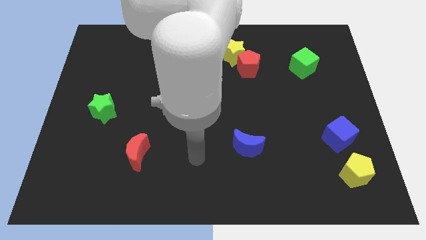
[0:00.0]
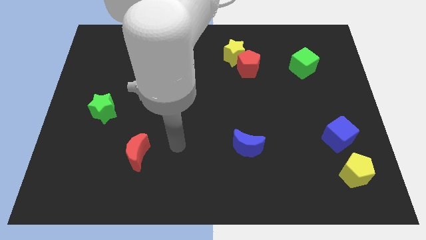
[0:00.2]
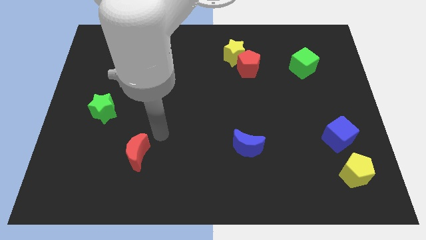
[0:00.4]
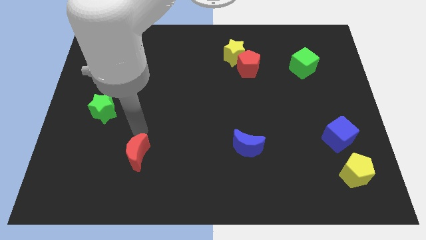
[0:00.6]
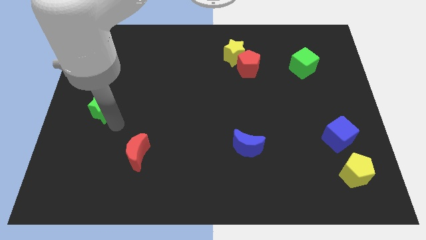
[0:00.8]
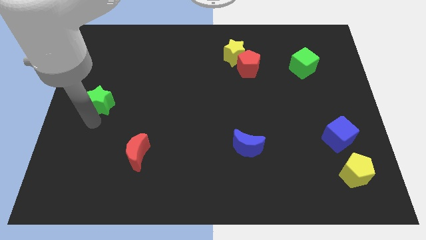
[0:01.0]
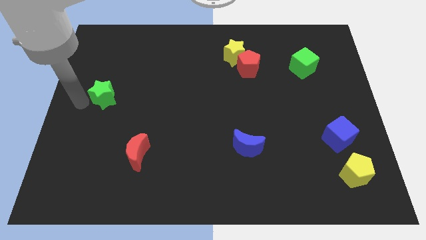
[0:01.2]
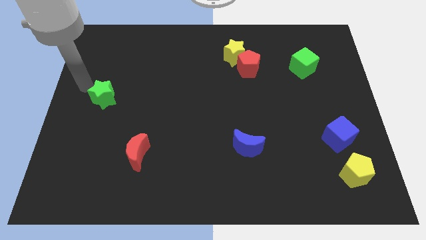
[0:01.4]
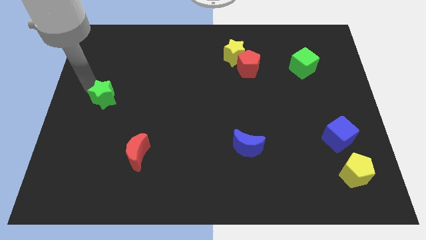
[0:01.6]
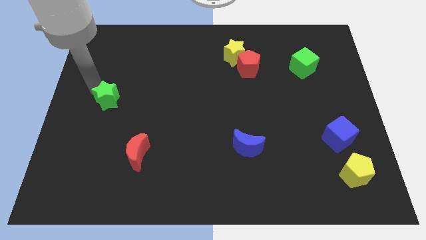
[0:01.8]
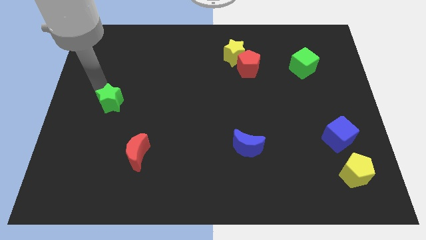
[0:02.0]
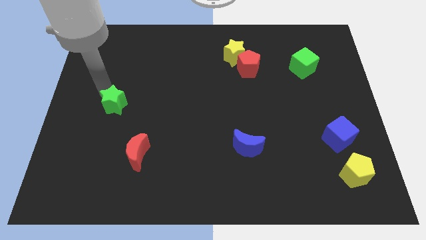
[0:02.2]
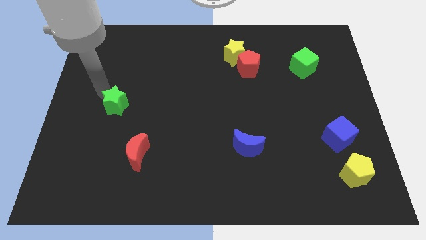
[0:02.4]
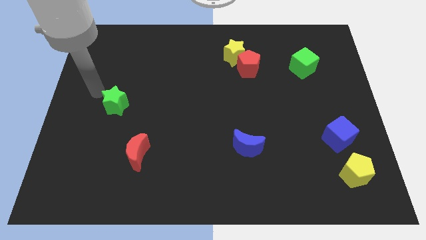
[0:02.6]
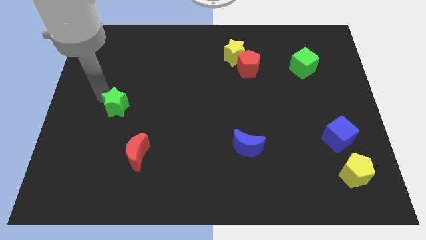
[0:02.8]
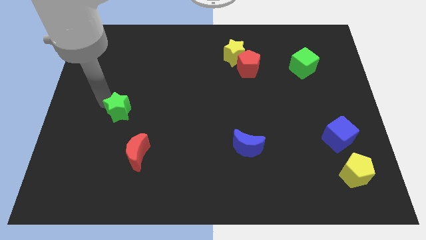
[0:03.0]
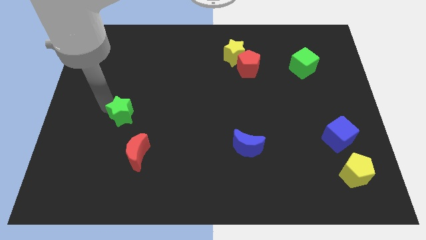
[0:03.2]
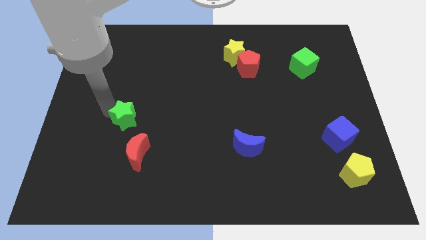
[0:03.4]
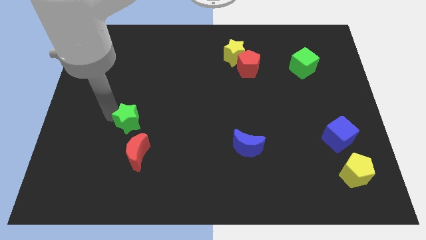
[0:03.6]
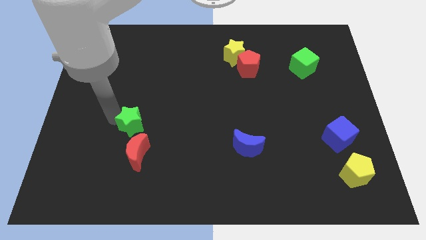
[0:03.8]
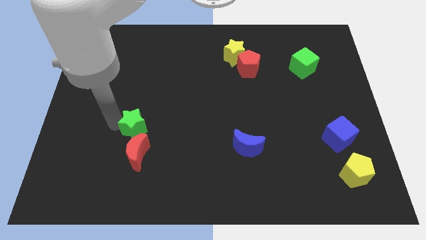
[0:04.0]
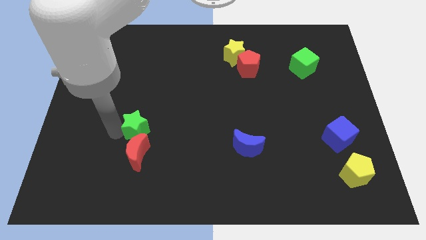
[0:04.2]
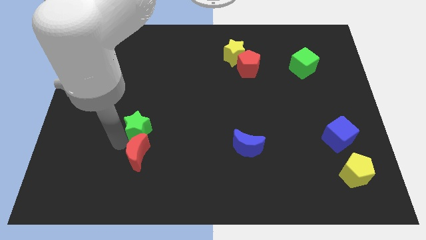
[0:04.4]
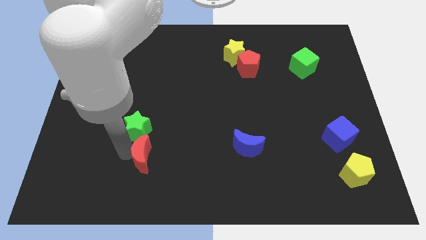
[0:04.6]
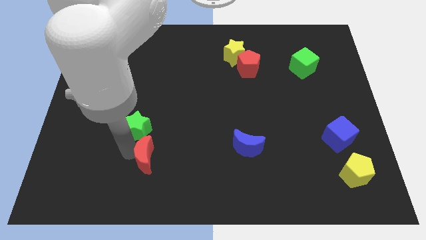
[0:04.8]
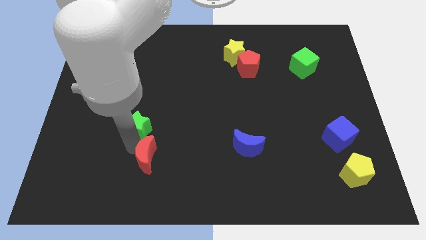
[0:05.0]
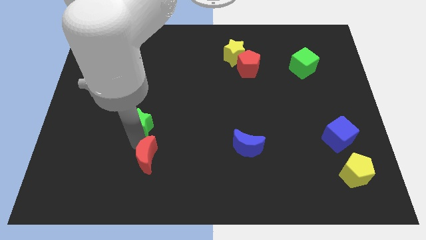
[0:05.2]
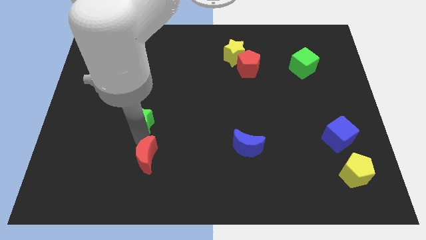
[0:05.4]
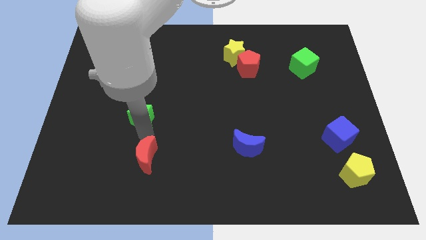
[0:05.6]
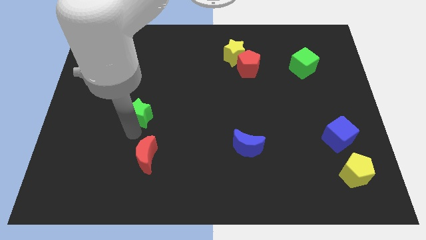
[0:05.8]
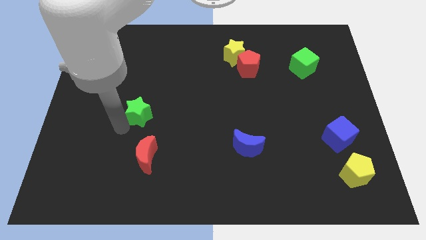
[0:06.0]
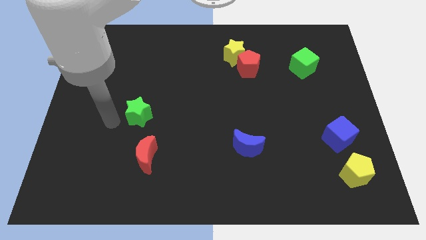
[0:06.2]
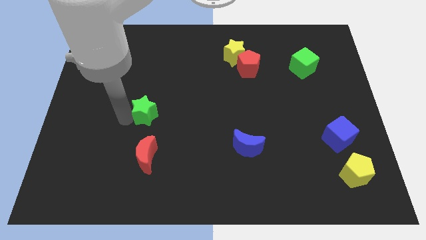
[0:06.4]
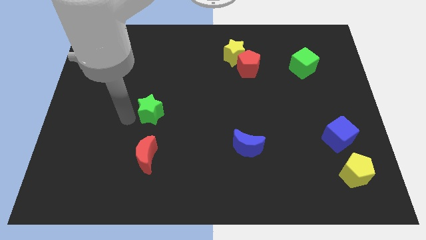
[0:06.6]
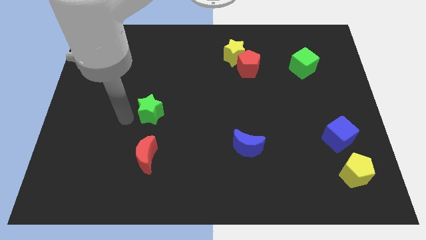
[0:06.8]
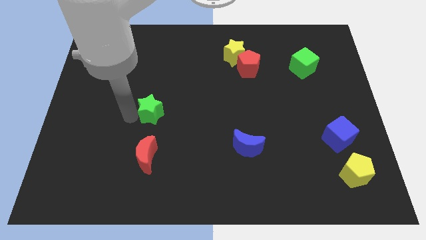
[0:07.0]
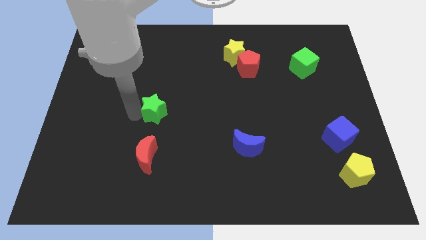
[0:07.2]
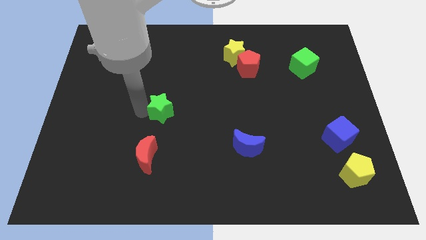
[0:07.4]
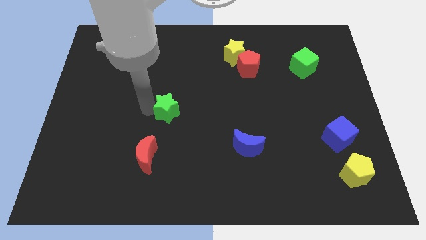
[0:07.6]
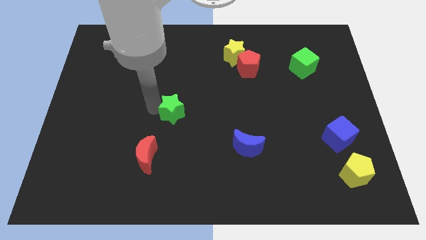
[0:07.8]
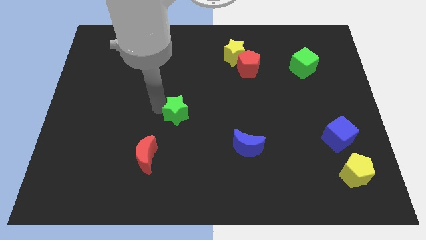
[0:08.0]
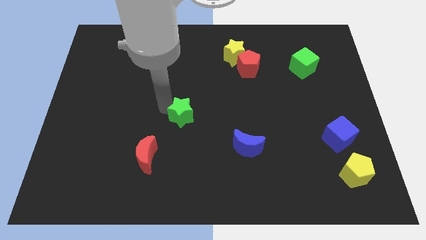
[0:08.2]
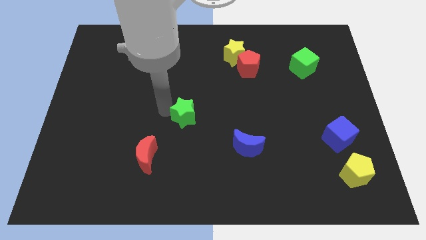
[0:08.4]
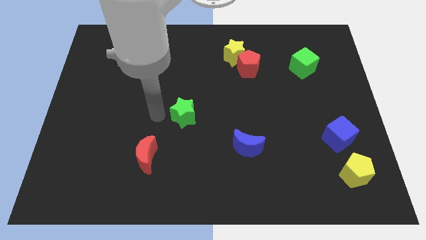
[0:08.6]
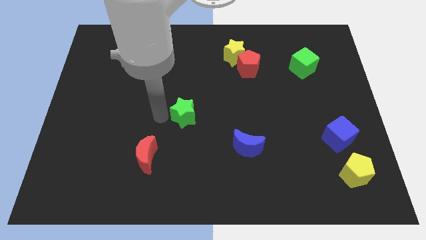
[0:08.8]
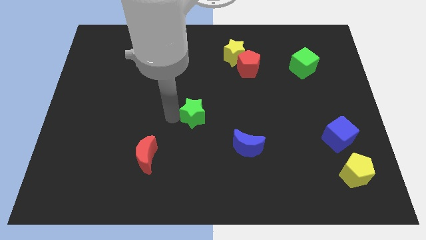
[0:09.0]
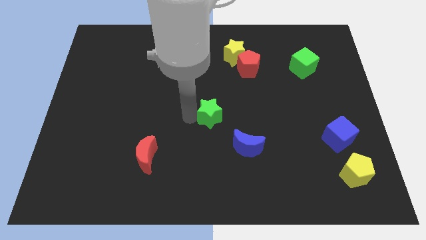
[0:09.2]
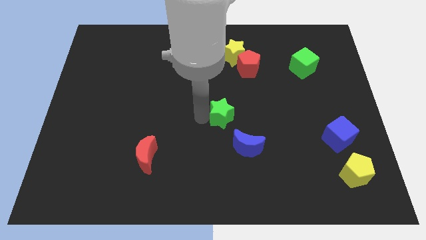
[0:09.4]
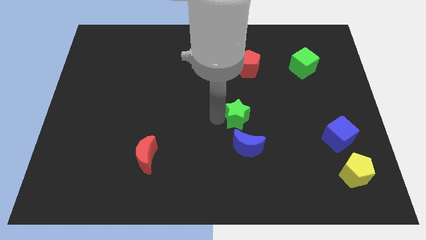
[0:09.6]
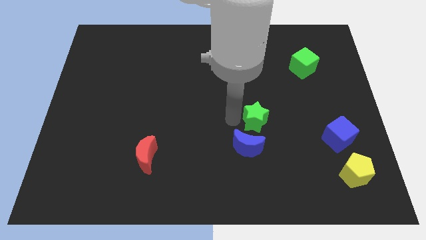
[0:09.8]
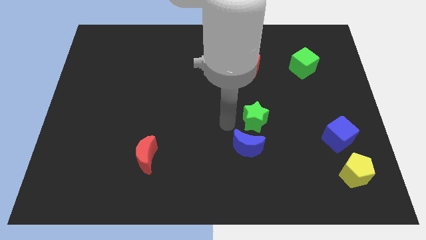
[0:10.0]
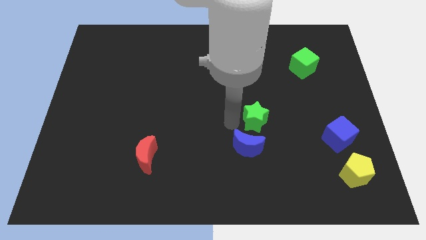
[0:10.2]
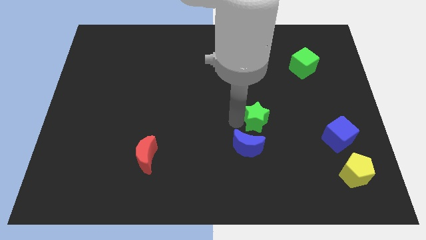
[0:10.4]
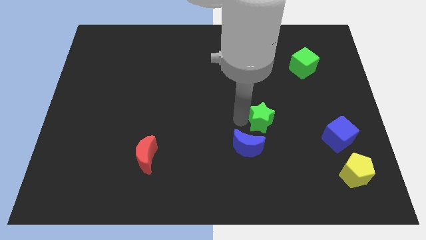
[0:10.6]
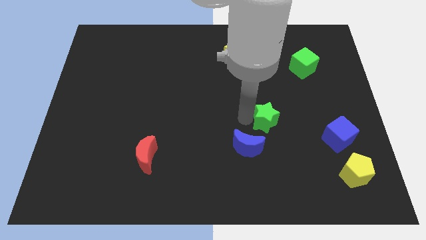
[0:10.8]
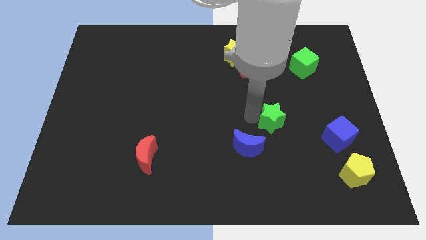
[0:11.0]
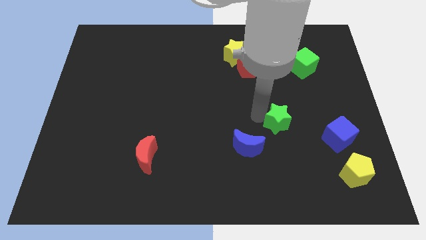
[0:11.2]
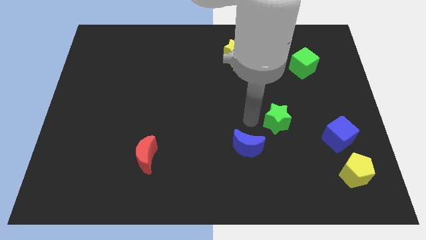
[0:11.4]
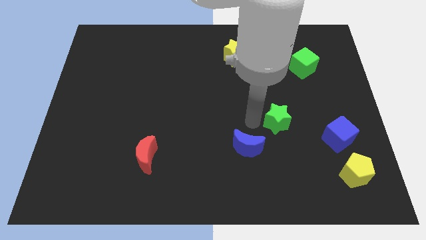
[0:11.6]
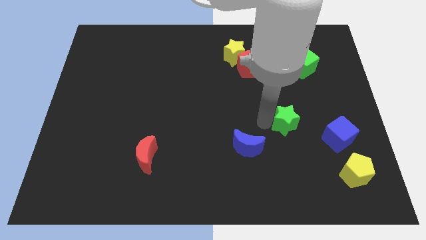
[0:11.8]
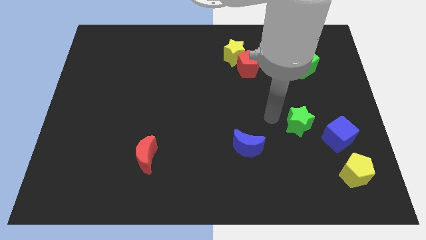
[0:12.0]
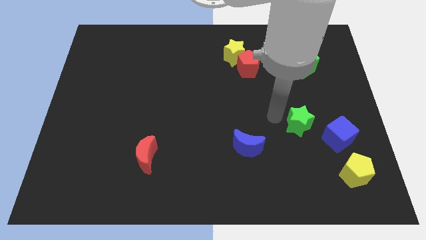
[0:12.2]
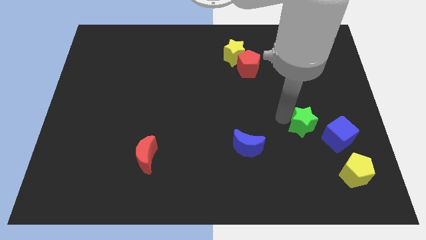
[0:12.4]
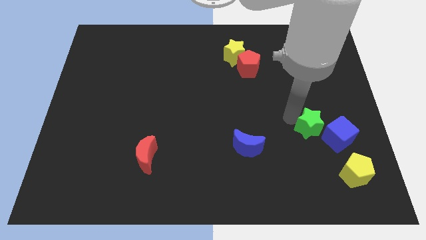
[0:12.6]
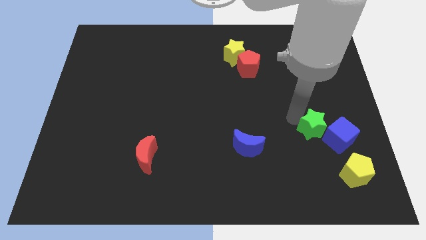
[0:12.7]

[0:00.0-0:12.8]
put the green star to the blue cube

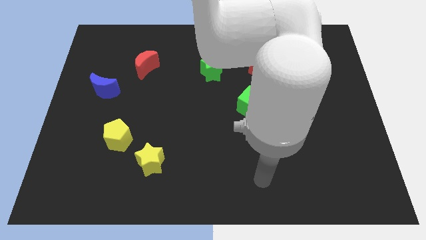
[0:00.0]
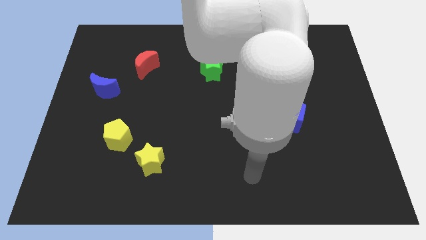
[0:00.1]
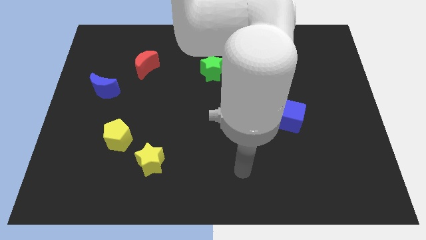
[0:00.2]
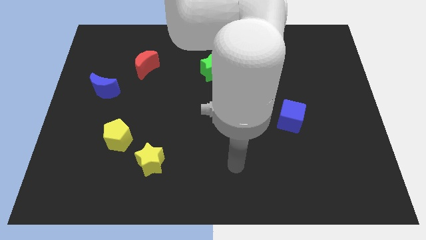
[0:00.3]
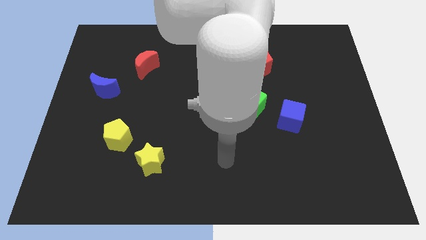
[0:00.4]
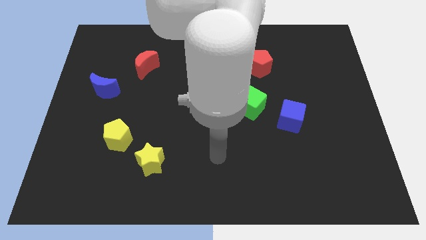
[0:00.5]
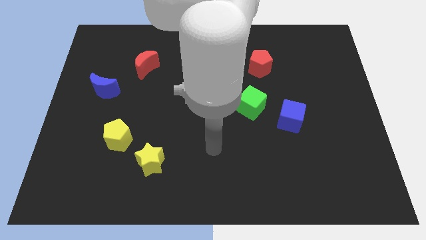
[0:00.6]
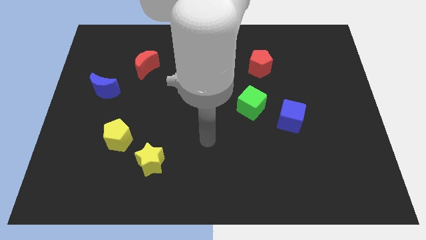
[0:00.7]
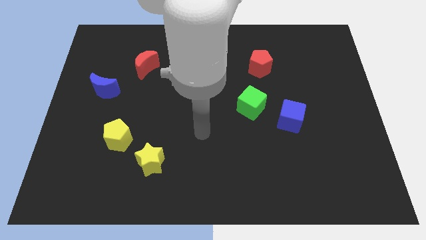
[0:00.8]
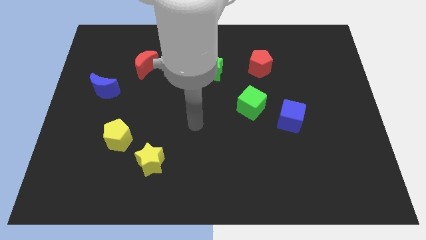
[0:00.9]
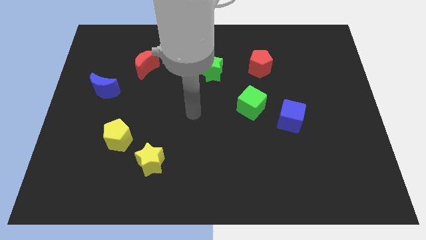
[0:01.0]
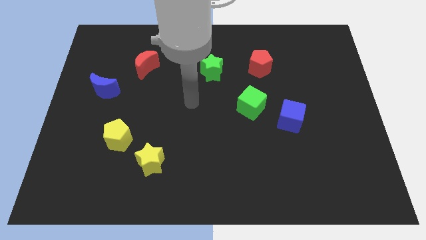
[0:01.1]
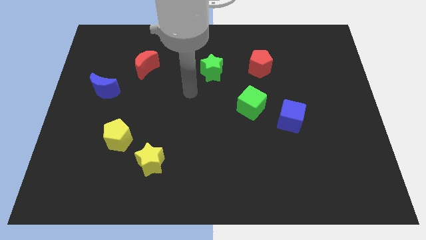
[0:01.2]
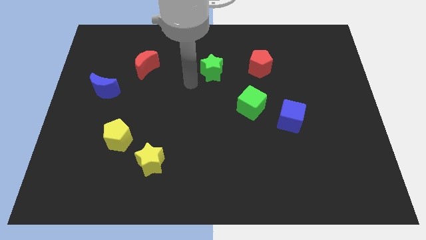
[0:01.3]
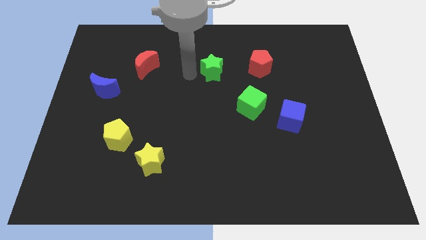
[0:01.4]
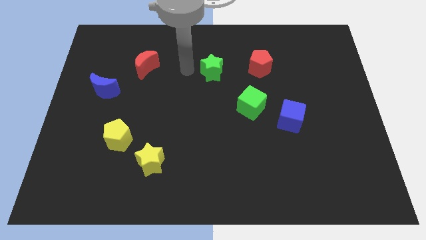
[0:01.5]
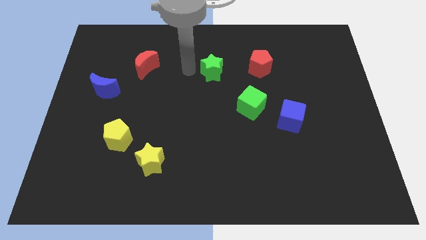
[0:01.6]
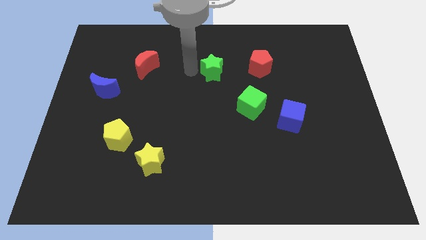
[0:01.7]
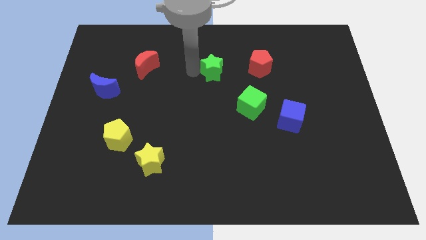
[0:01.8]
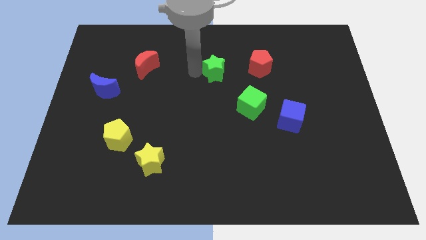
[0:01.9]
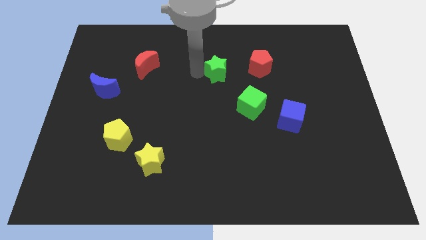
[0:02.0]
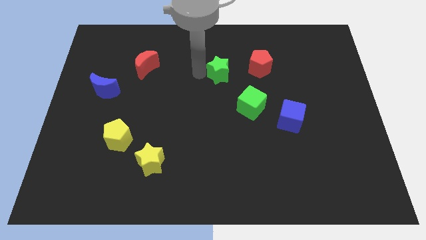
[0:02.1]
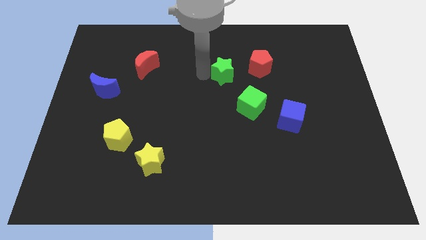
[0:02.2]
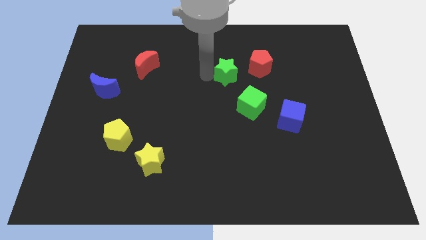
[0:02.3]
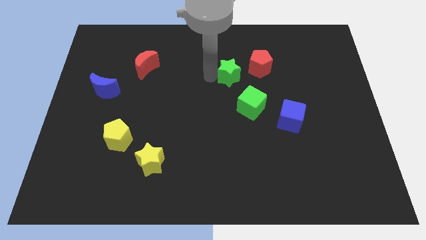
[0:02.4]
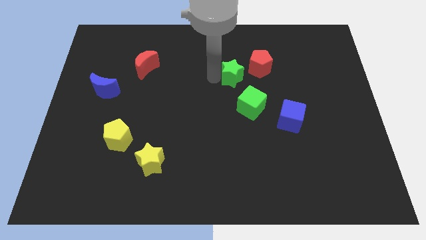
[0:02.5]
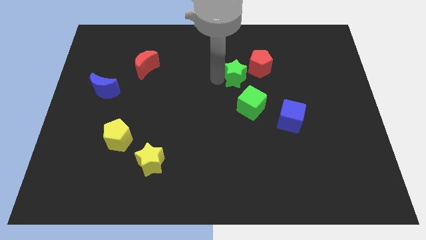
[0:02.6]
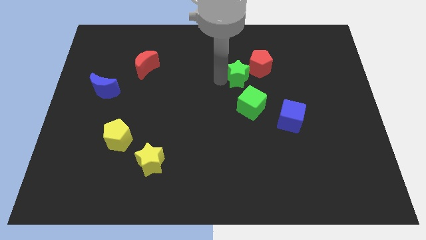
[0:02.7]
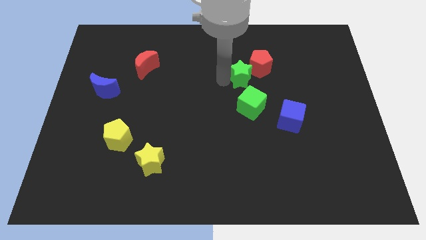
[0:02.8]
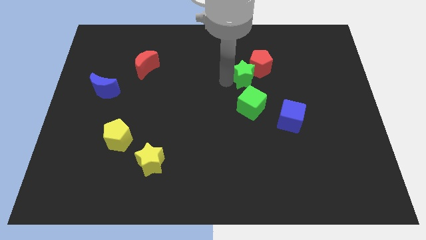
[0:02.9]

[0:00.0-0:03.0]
move the green star next to the red pentagon
